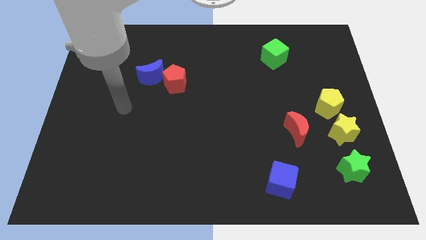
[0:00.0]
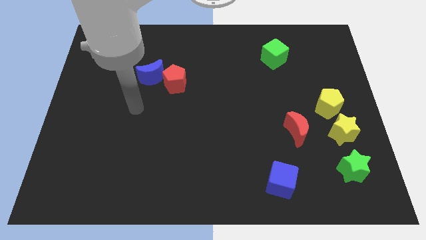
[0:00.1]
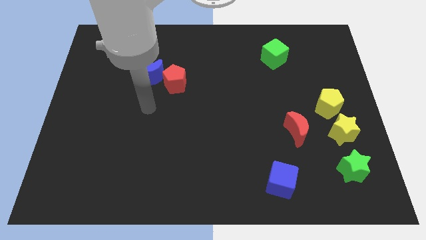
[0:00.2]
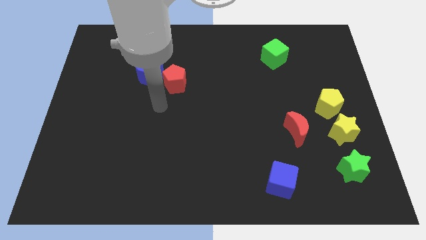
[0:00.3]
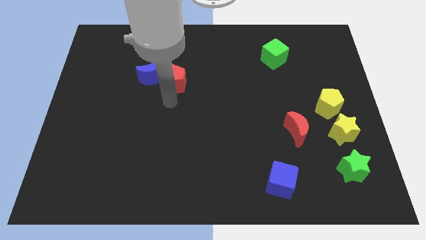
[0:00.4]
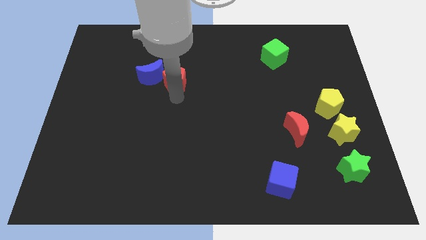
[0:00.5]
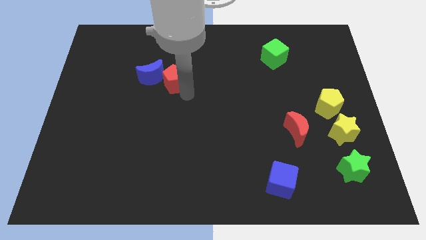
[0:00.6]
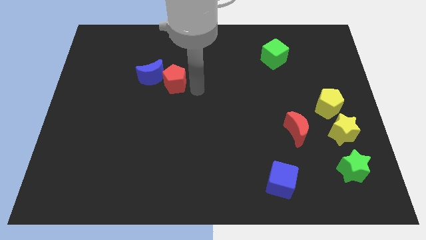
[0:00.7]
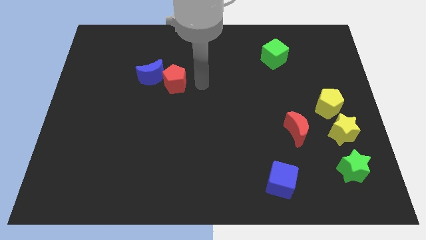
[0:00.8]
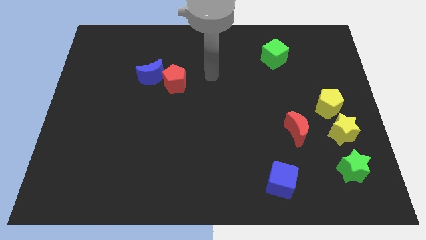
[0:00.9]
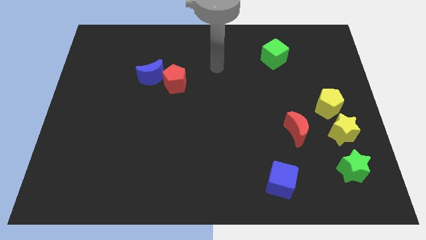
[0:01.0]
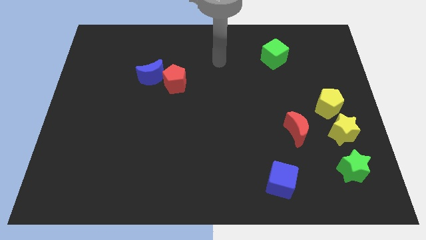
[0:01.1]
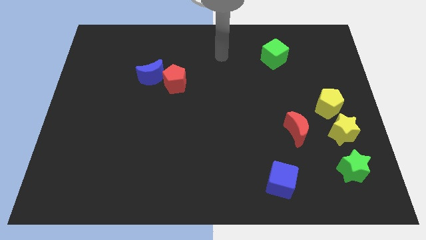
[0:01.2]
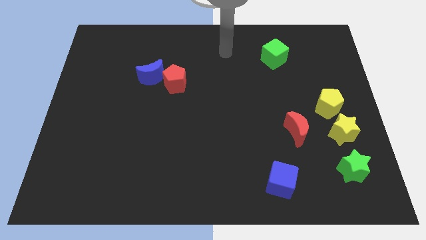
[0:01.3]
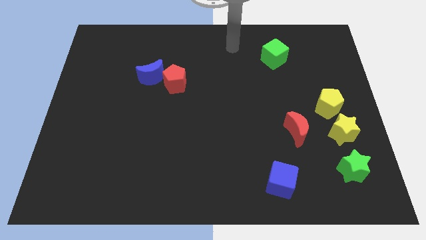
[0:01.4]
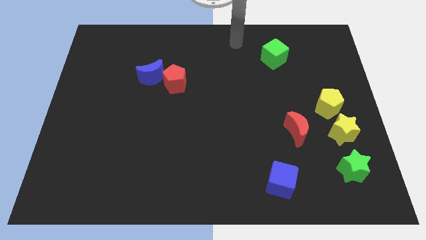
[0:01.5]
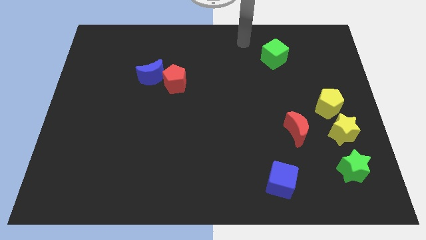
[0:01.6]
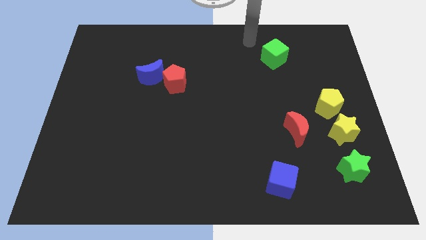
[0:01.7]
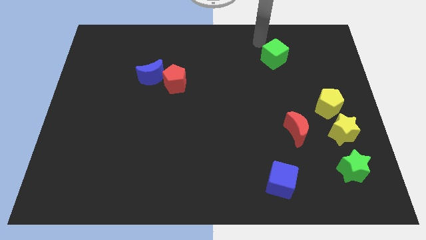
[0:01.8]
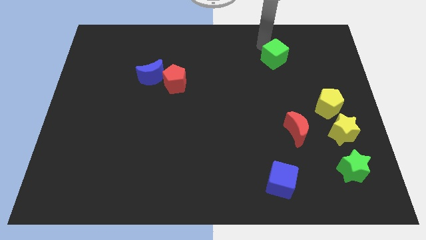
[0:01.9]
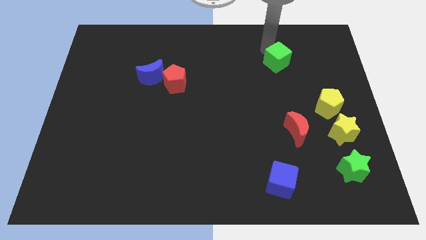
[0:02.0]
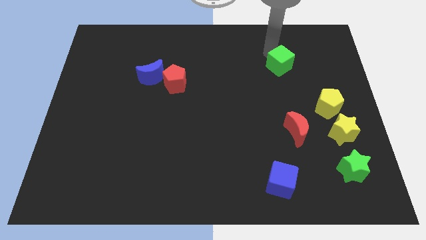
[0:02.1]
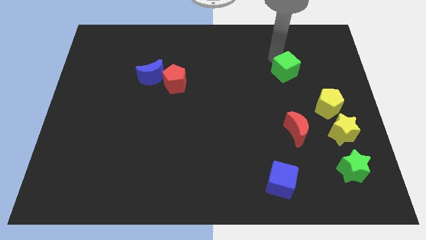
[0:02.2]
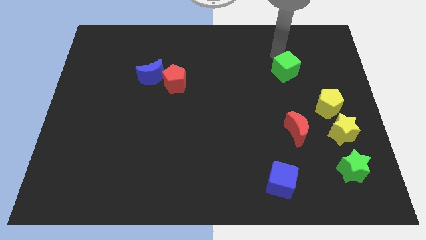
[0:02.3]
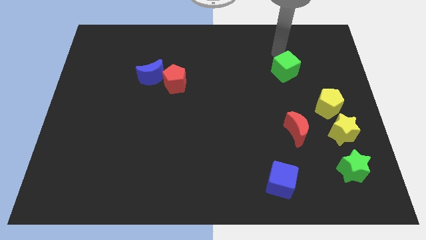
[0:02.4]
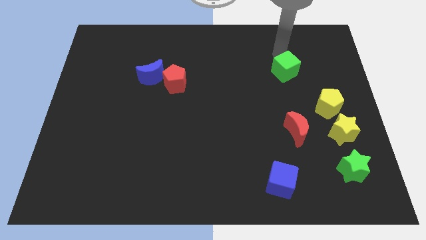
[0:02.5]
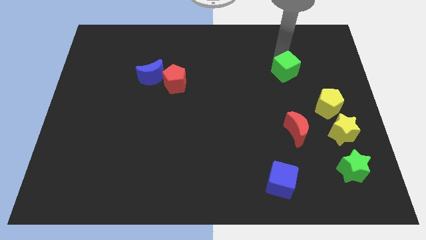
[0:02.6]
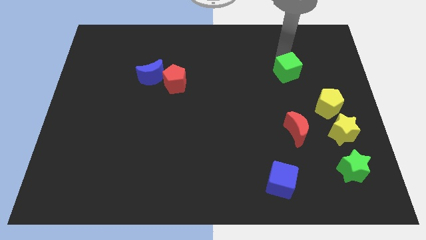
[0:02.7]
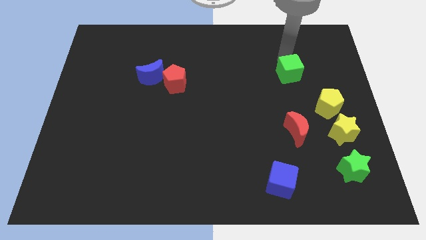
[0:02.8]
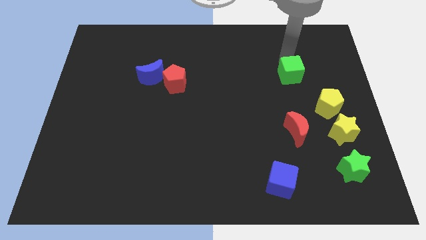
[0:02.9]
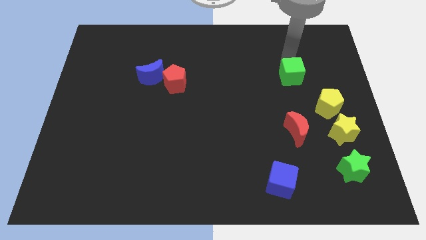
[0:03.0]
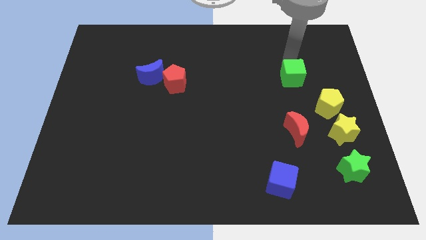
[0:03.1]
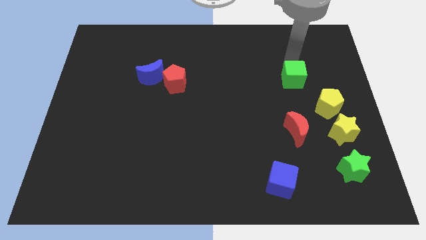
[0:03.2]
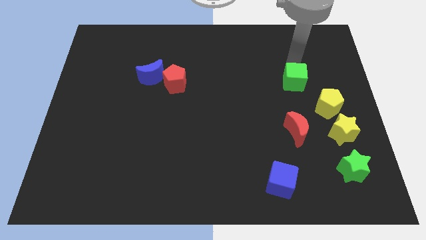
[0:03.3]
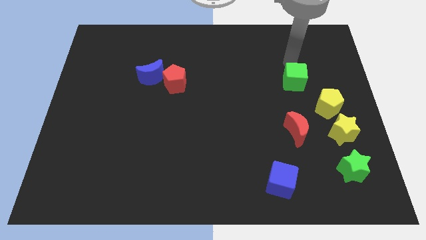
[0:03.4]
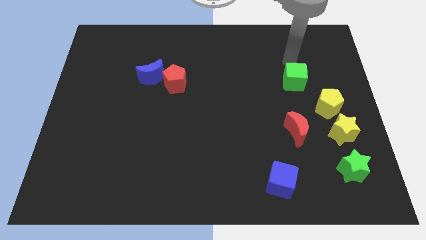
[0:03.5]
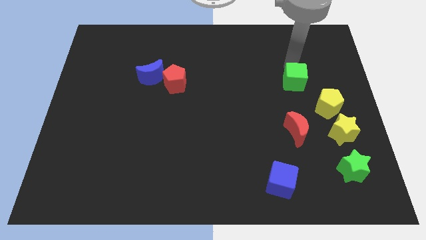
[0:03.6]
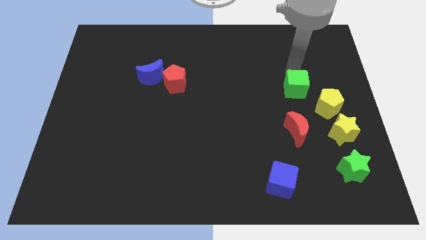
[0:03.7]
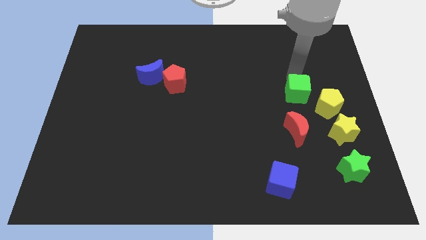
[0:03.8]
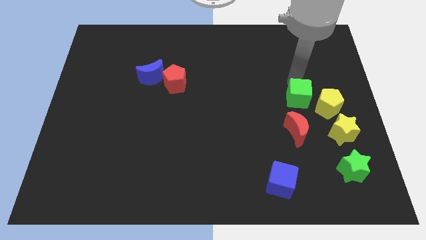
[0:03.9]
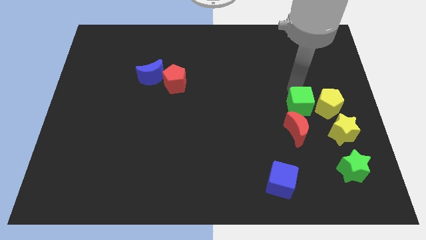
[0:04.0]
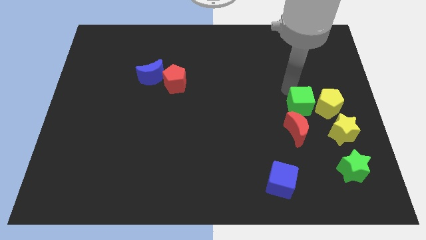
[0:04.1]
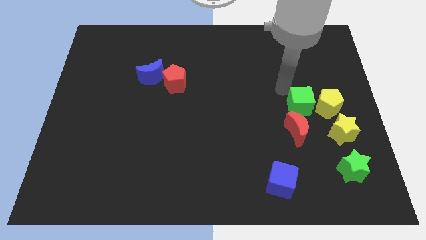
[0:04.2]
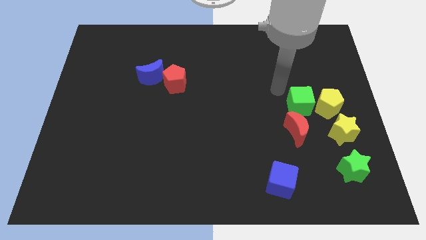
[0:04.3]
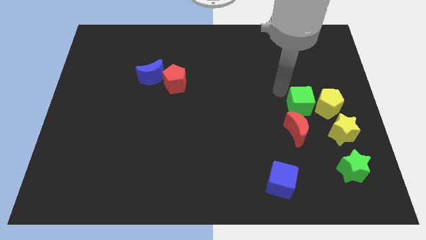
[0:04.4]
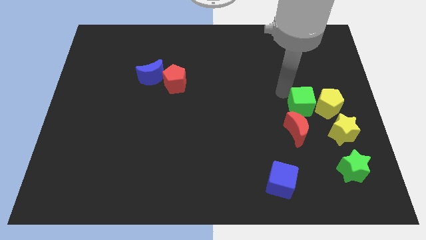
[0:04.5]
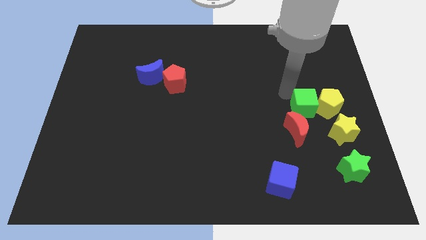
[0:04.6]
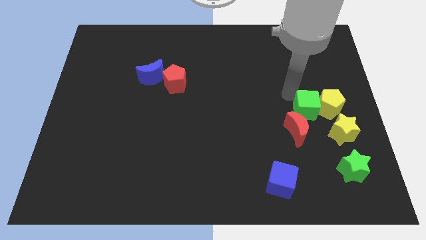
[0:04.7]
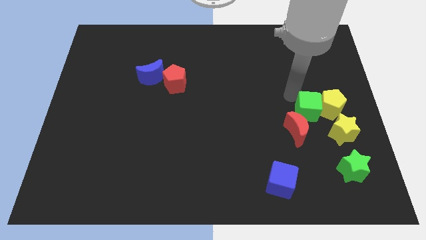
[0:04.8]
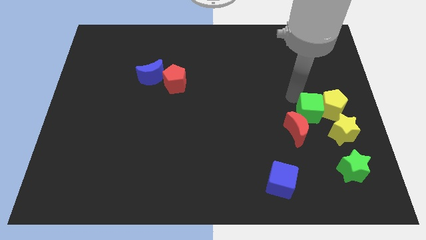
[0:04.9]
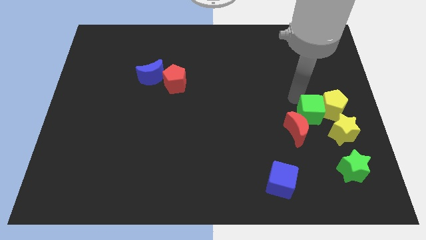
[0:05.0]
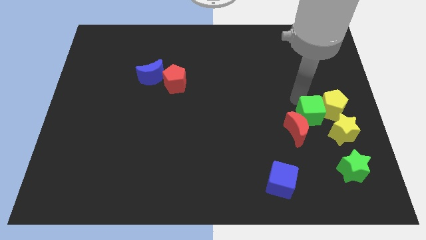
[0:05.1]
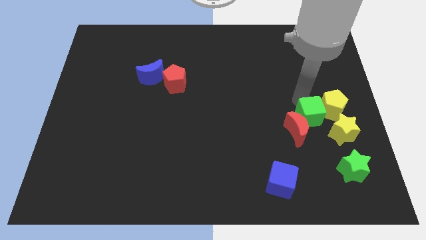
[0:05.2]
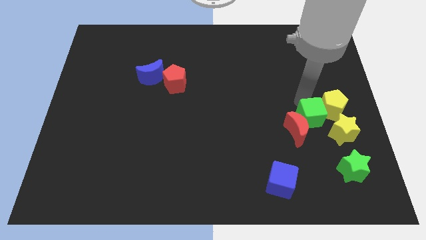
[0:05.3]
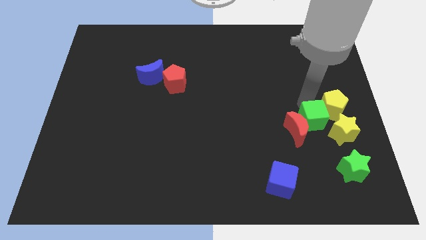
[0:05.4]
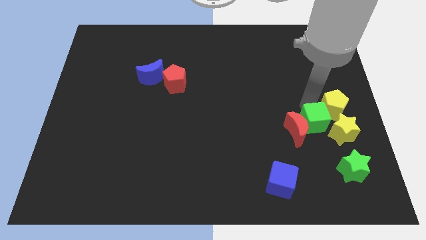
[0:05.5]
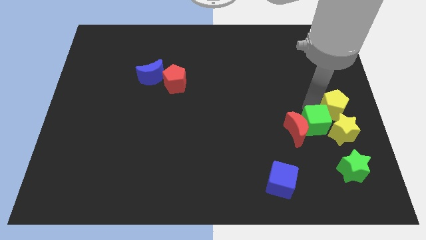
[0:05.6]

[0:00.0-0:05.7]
put the green cube towards the yellow star

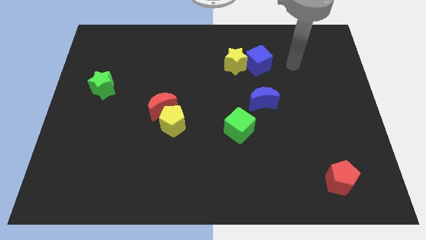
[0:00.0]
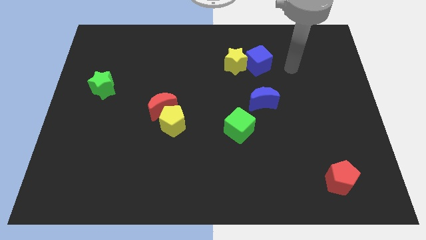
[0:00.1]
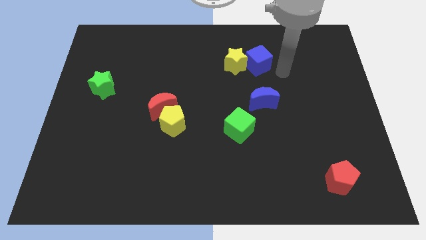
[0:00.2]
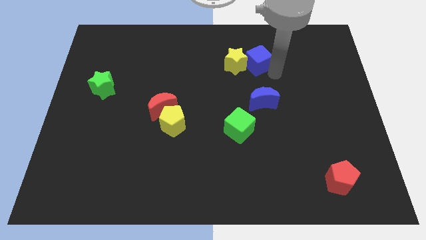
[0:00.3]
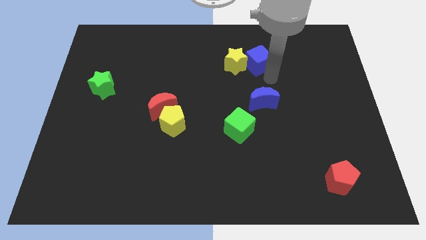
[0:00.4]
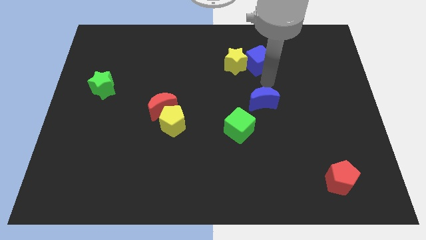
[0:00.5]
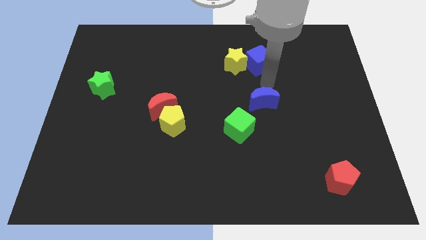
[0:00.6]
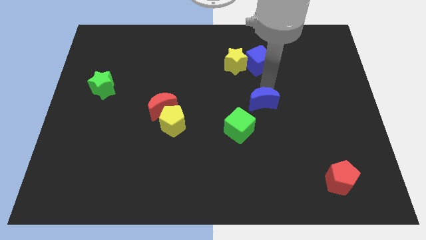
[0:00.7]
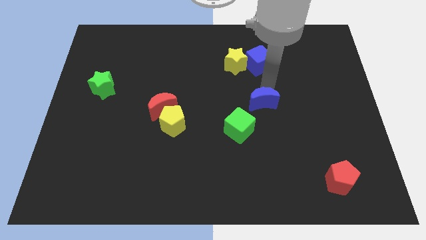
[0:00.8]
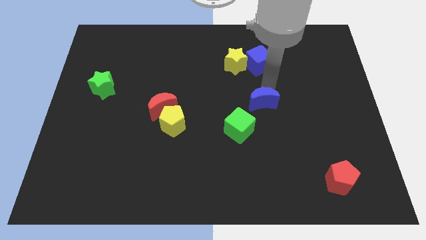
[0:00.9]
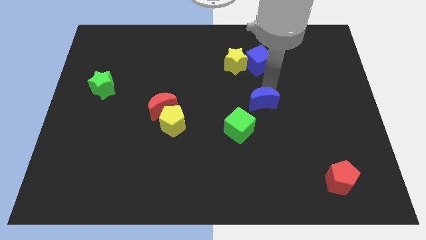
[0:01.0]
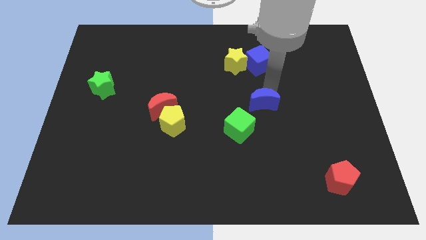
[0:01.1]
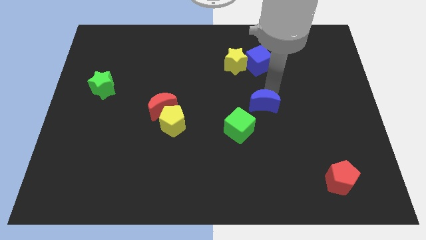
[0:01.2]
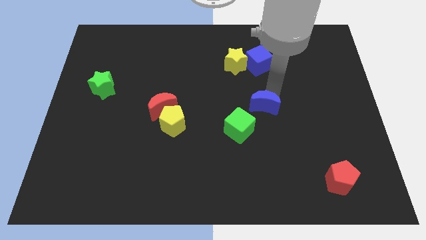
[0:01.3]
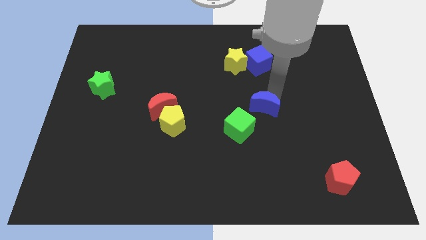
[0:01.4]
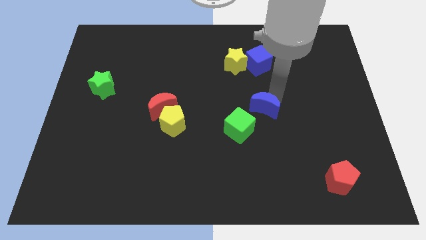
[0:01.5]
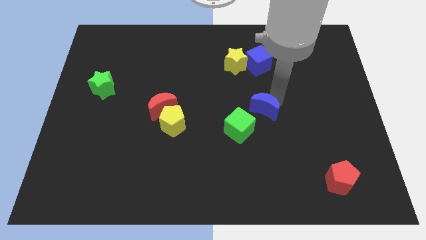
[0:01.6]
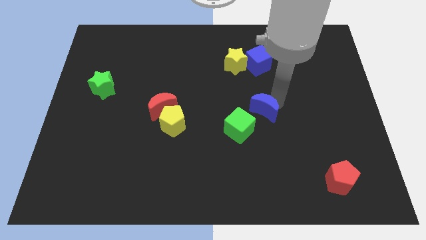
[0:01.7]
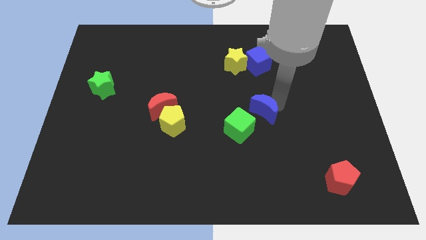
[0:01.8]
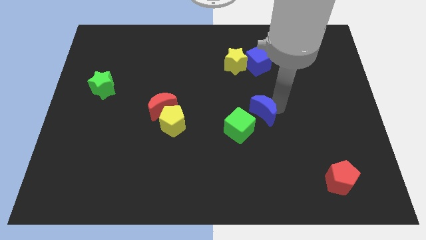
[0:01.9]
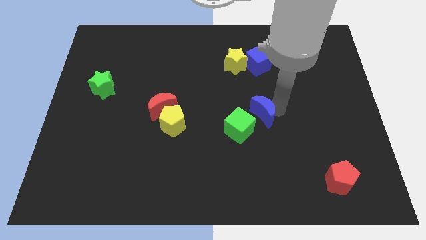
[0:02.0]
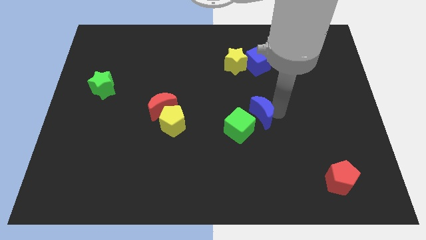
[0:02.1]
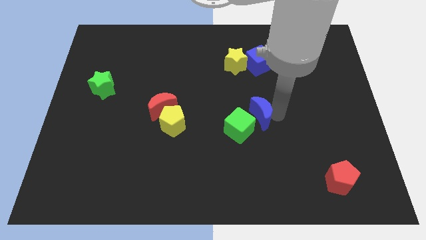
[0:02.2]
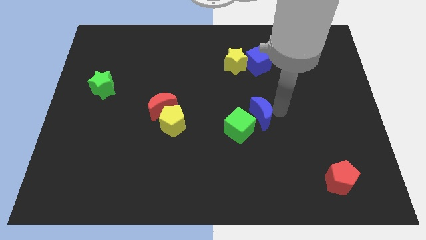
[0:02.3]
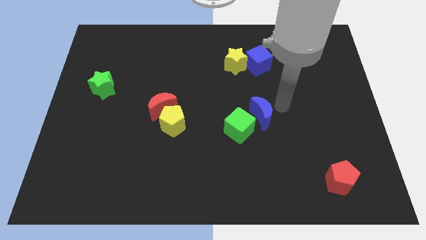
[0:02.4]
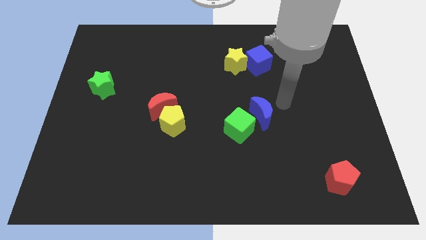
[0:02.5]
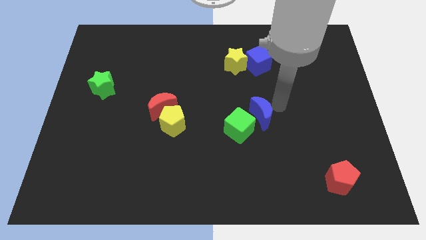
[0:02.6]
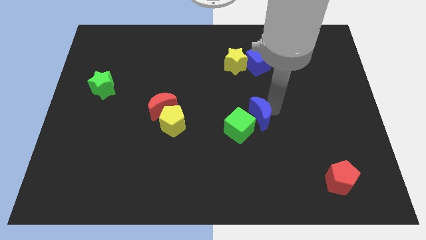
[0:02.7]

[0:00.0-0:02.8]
slide the blue moon close to the green cube
